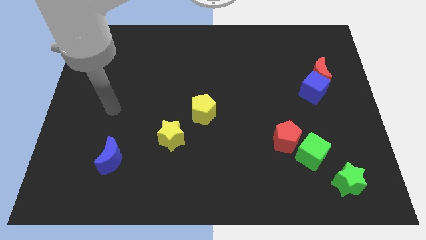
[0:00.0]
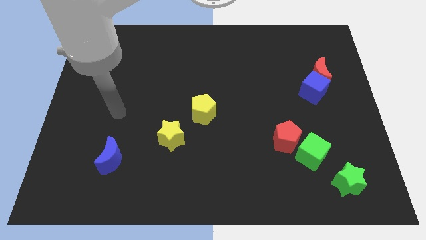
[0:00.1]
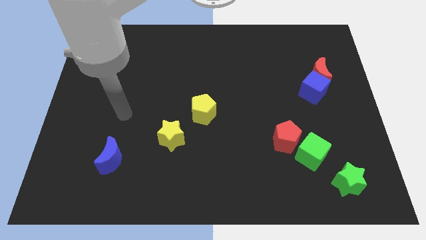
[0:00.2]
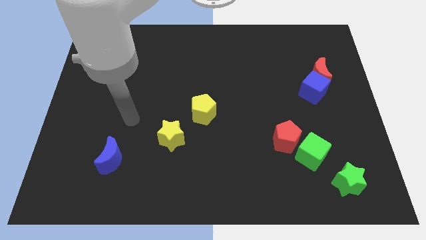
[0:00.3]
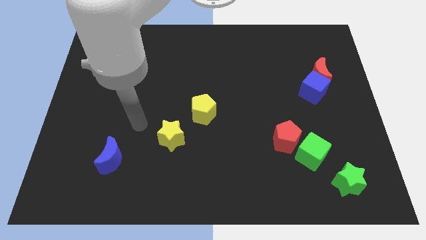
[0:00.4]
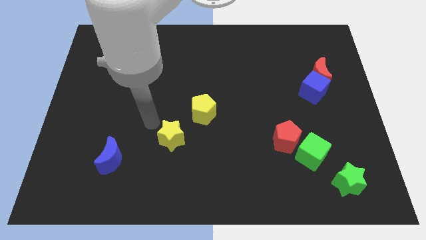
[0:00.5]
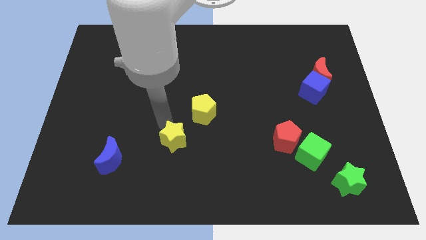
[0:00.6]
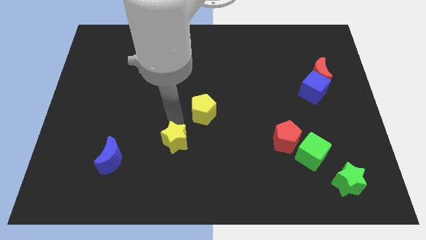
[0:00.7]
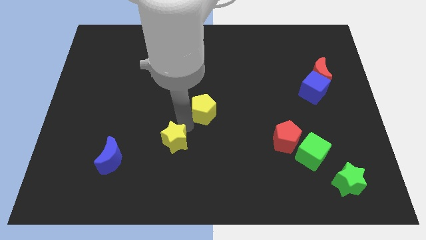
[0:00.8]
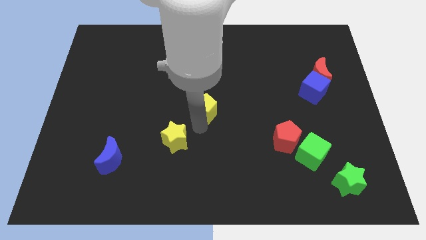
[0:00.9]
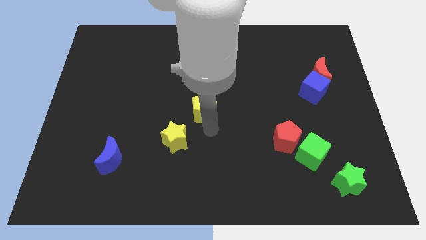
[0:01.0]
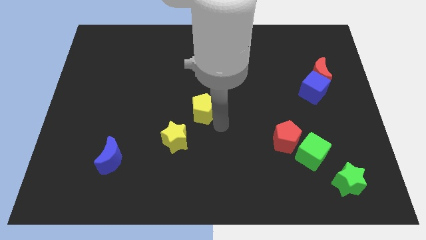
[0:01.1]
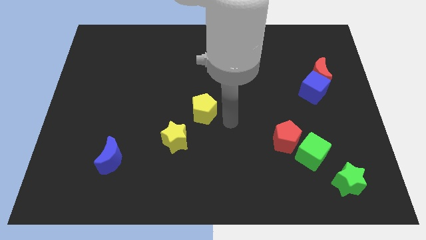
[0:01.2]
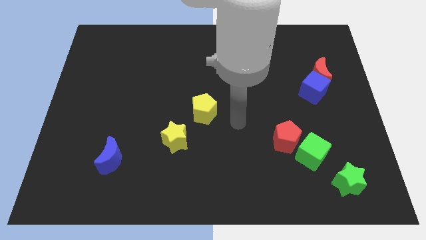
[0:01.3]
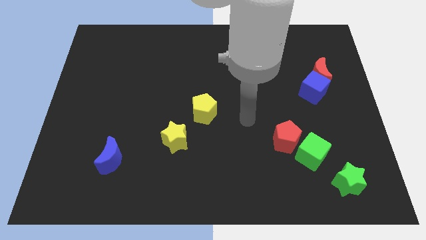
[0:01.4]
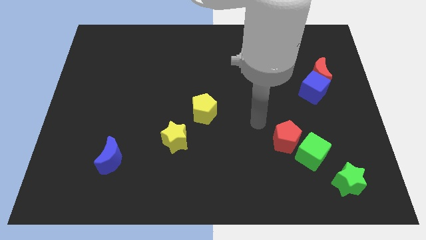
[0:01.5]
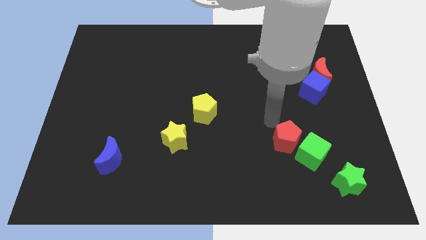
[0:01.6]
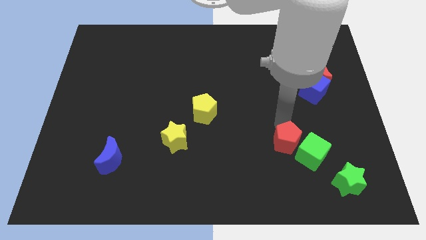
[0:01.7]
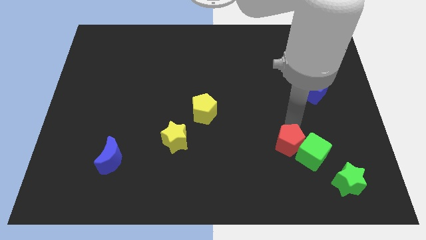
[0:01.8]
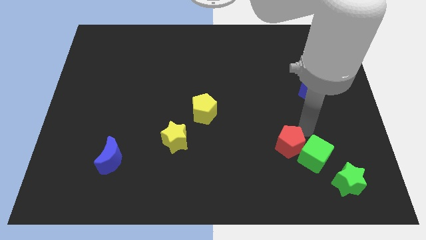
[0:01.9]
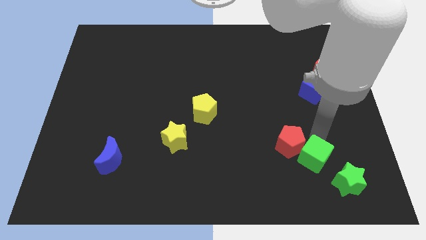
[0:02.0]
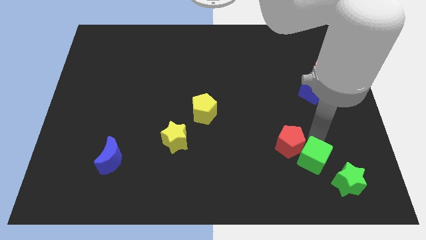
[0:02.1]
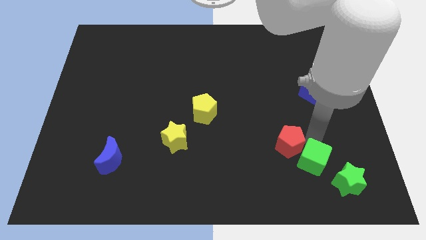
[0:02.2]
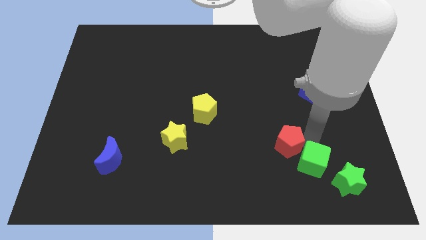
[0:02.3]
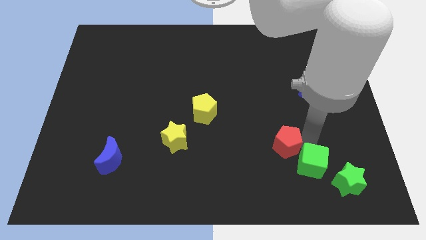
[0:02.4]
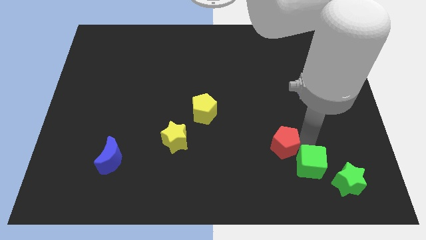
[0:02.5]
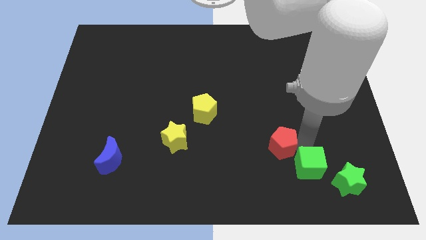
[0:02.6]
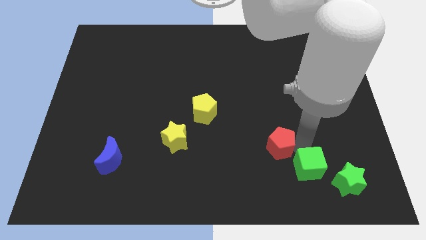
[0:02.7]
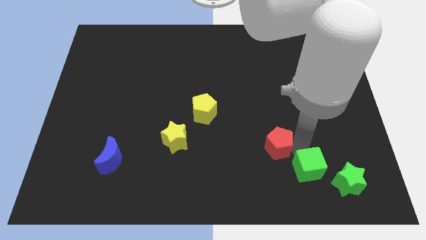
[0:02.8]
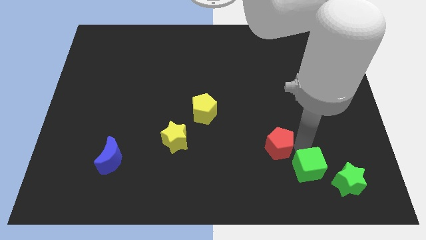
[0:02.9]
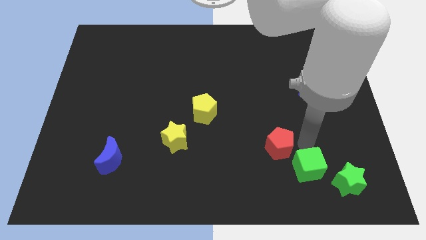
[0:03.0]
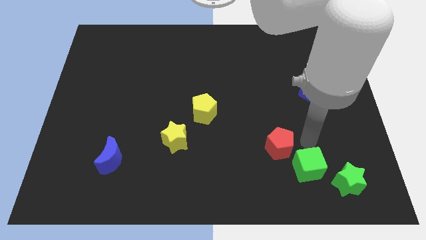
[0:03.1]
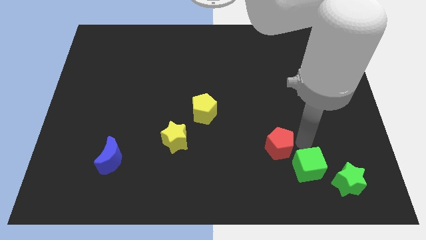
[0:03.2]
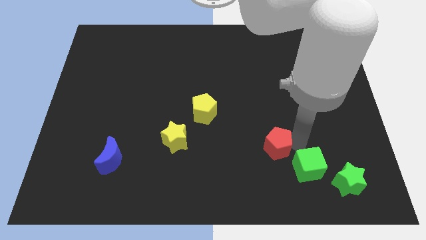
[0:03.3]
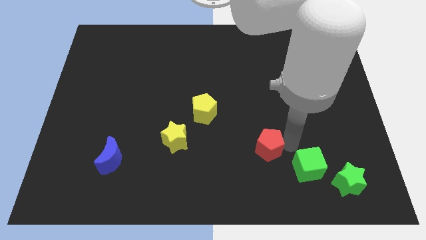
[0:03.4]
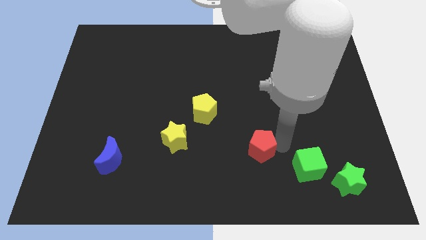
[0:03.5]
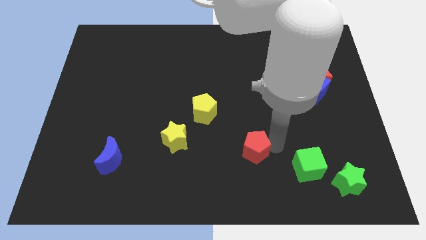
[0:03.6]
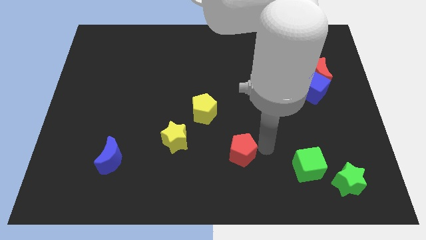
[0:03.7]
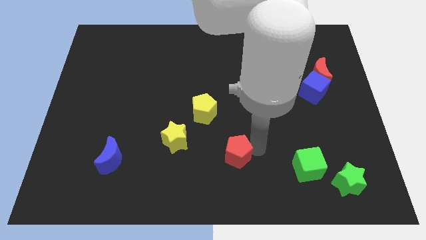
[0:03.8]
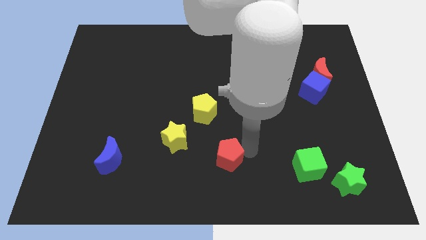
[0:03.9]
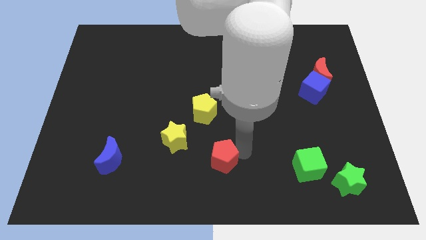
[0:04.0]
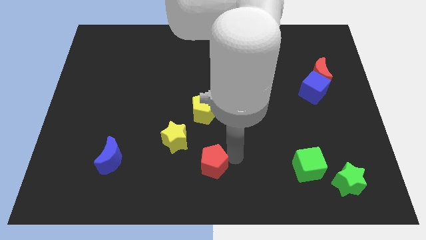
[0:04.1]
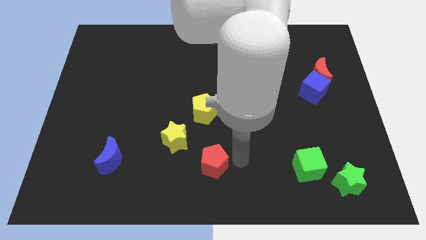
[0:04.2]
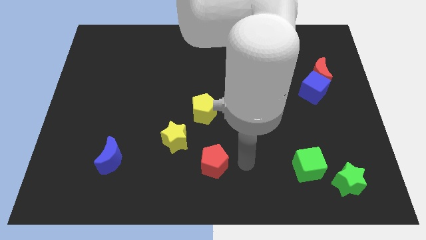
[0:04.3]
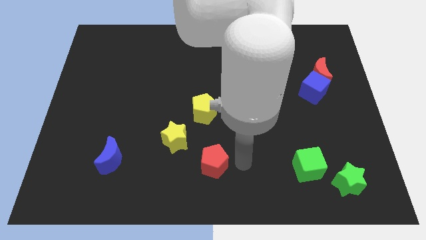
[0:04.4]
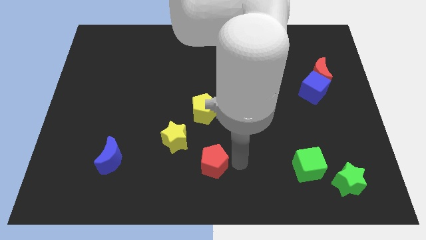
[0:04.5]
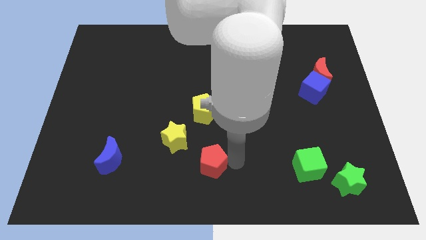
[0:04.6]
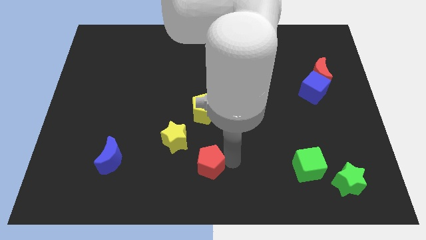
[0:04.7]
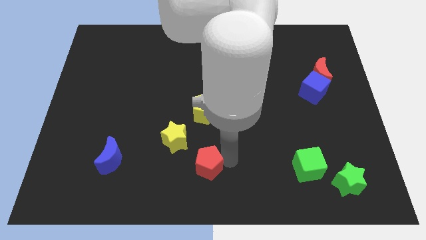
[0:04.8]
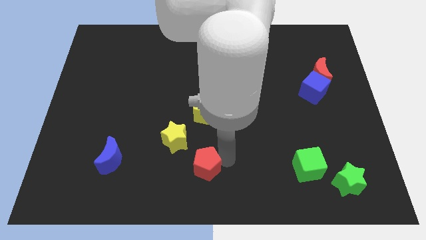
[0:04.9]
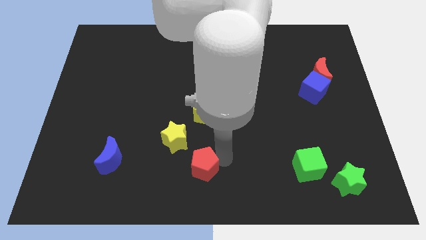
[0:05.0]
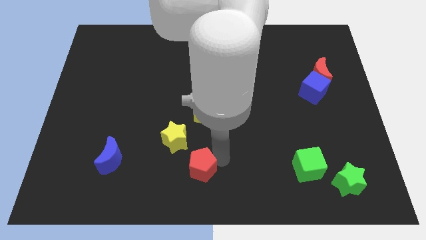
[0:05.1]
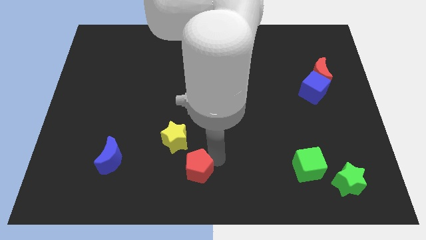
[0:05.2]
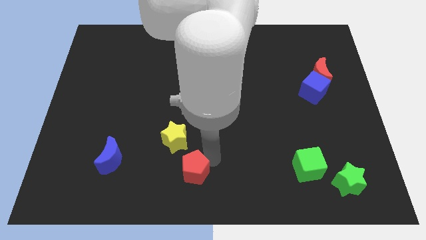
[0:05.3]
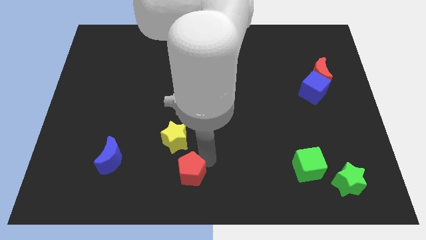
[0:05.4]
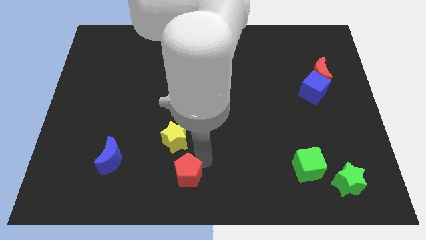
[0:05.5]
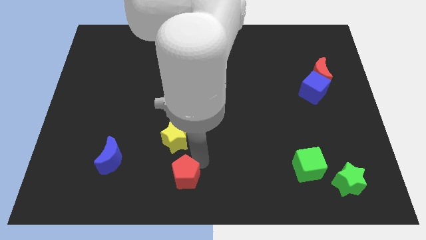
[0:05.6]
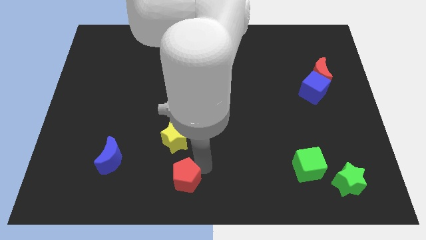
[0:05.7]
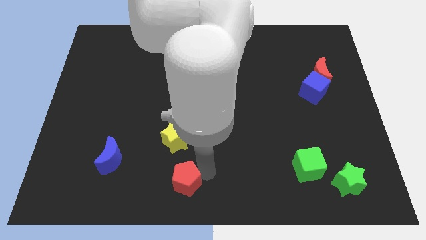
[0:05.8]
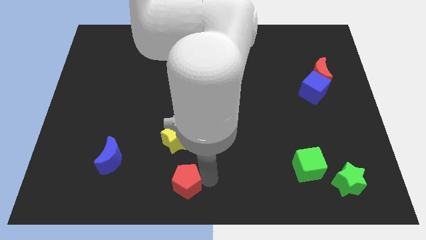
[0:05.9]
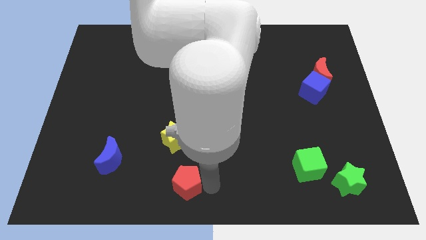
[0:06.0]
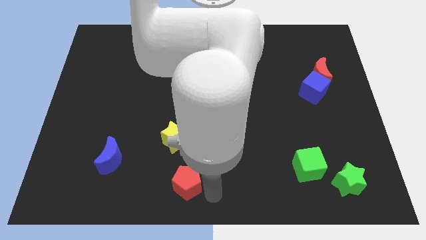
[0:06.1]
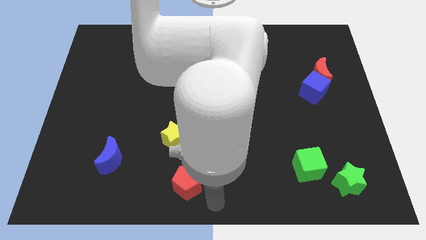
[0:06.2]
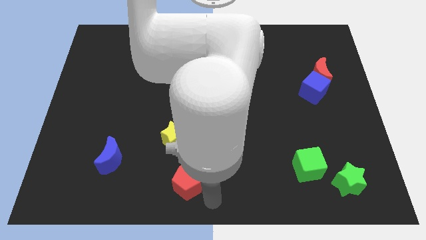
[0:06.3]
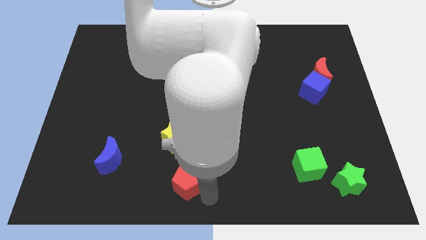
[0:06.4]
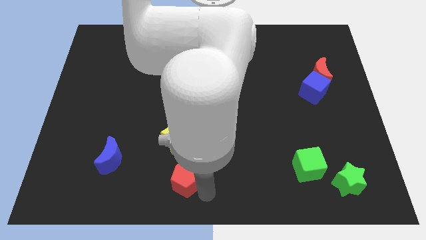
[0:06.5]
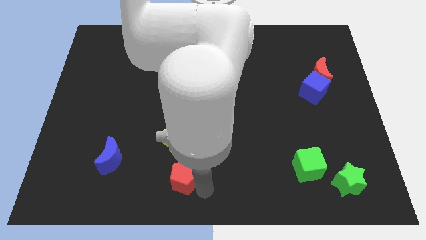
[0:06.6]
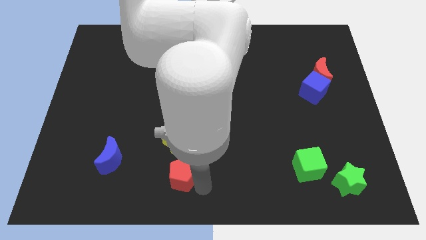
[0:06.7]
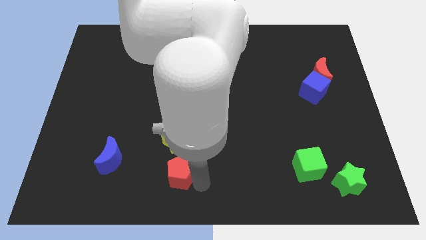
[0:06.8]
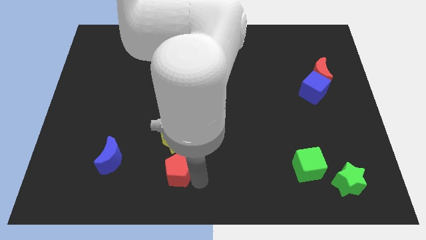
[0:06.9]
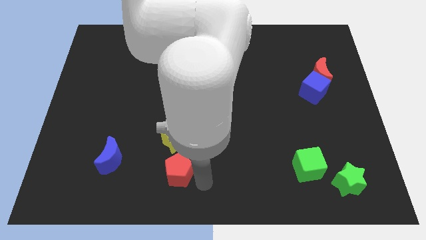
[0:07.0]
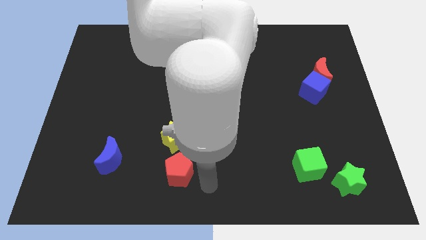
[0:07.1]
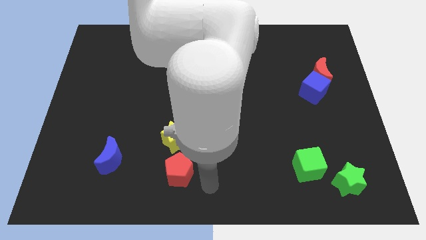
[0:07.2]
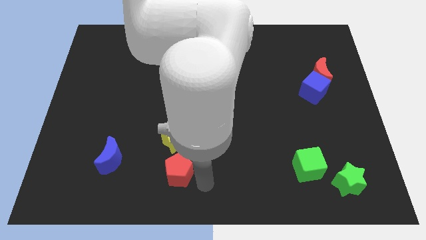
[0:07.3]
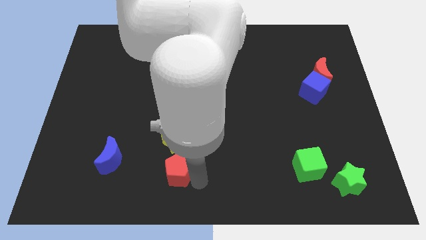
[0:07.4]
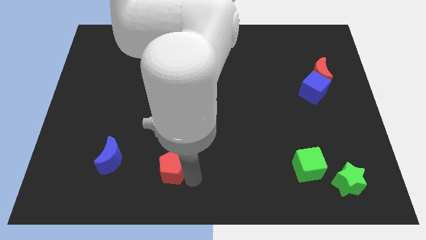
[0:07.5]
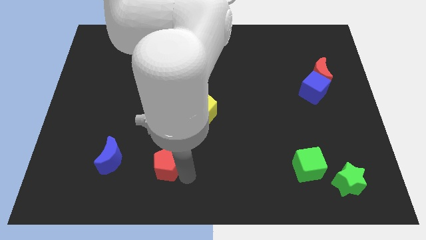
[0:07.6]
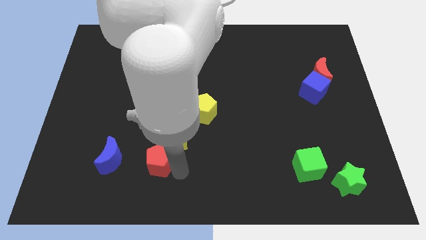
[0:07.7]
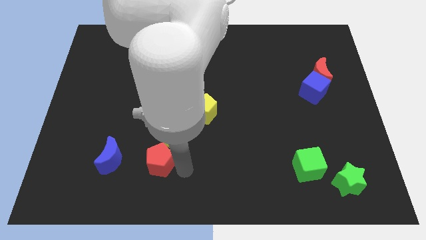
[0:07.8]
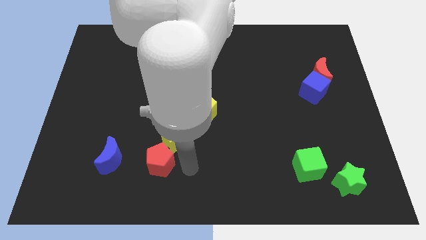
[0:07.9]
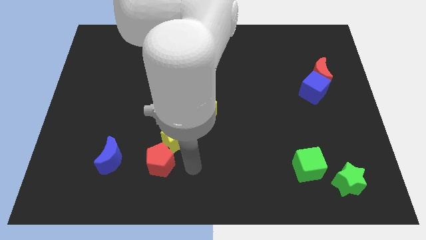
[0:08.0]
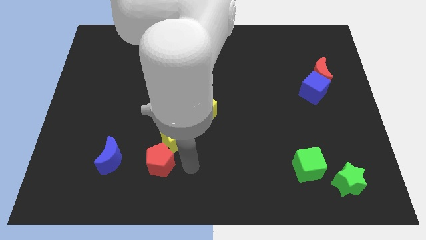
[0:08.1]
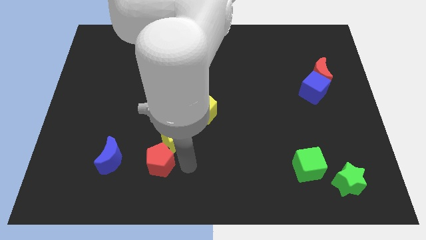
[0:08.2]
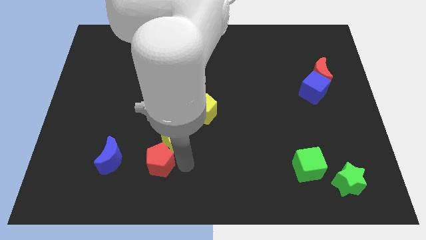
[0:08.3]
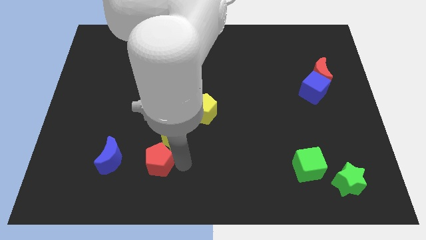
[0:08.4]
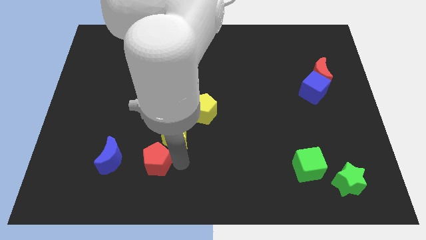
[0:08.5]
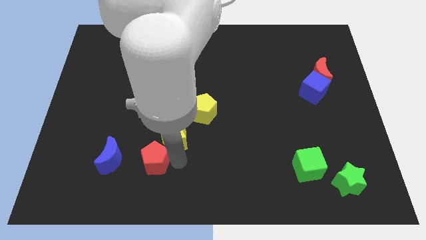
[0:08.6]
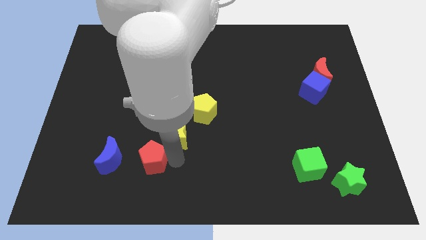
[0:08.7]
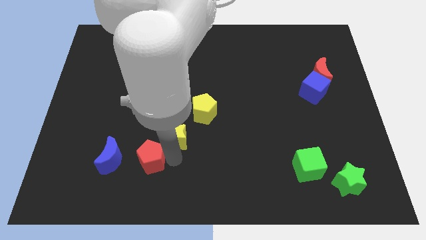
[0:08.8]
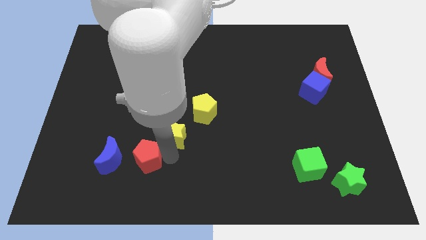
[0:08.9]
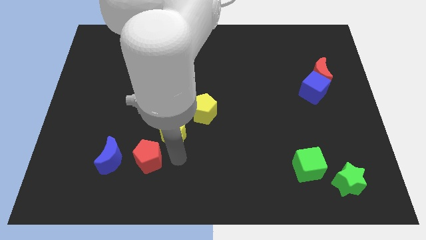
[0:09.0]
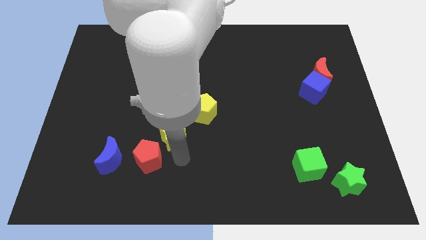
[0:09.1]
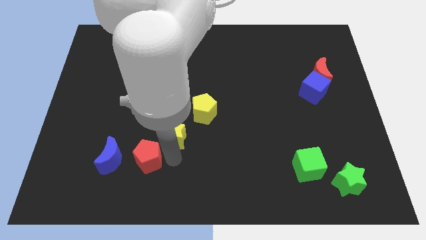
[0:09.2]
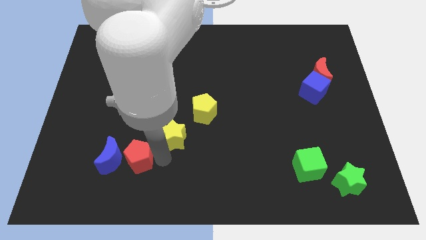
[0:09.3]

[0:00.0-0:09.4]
move the red pentagon towards the blue moon
